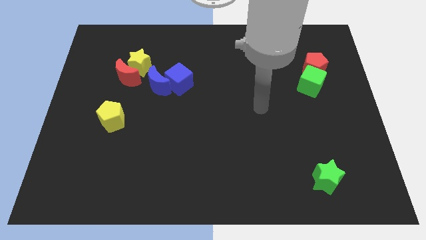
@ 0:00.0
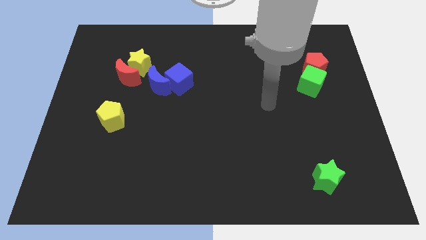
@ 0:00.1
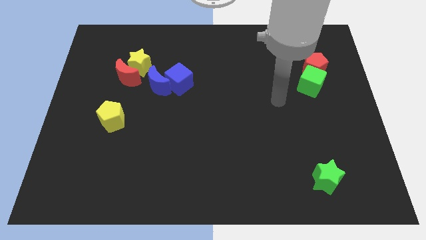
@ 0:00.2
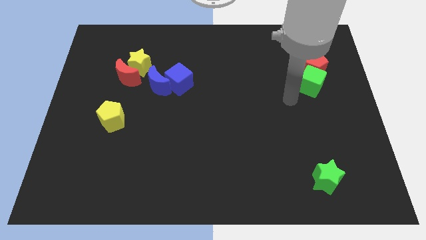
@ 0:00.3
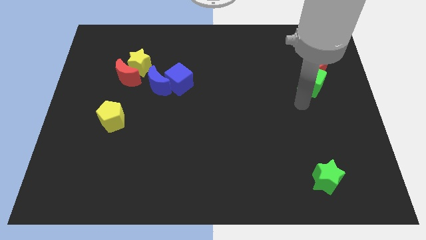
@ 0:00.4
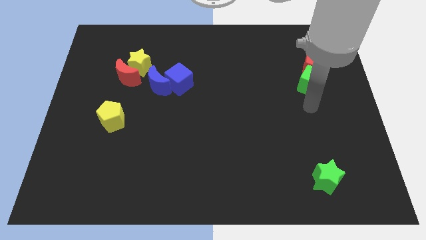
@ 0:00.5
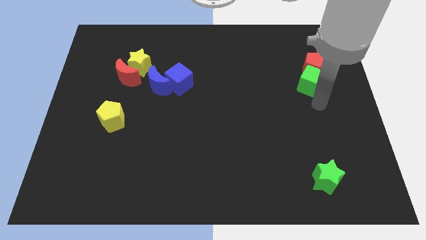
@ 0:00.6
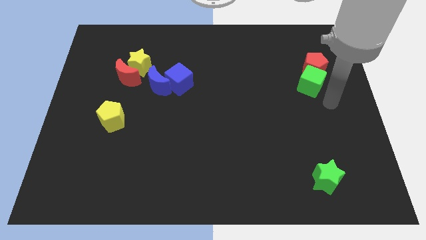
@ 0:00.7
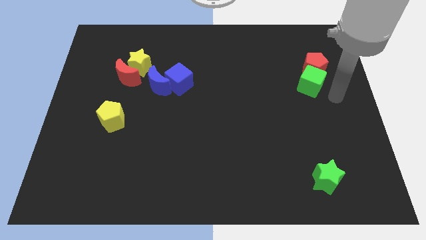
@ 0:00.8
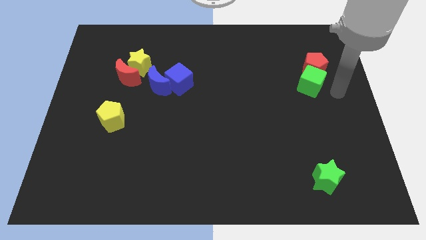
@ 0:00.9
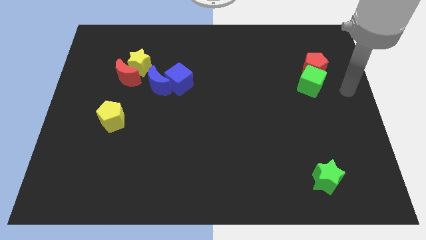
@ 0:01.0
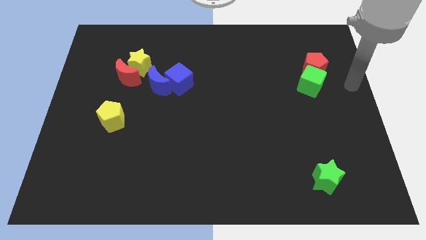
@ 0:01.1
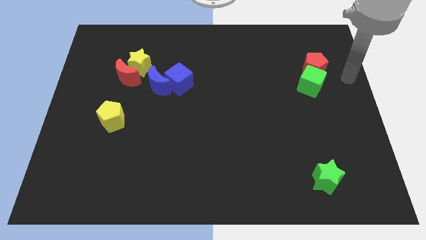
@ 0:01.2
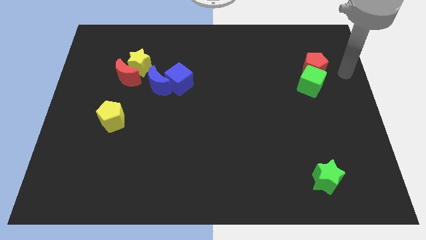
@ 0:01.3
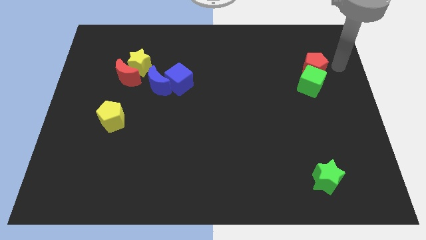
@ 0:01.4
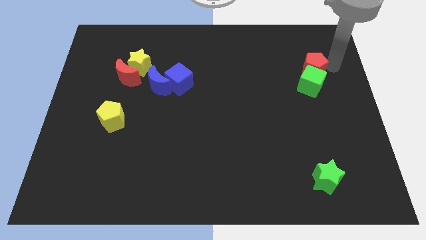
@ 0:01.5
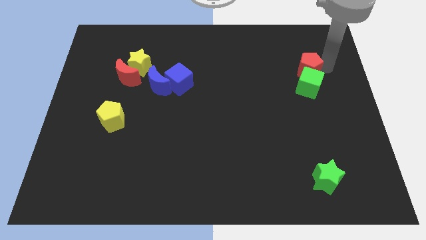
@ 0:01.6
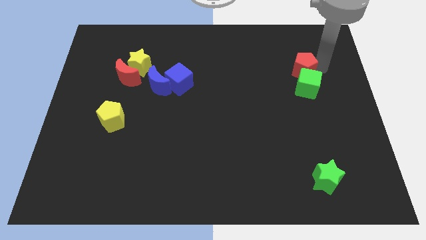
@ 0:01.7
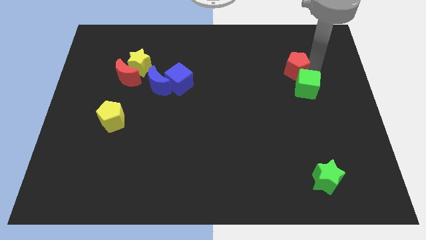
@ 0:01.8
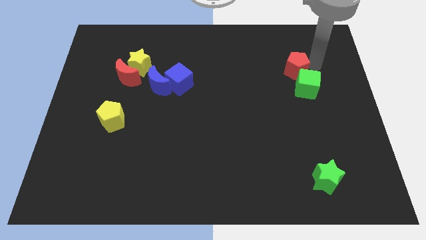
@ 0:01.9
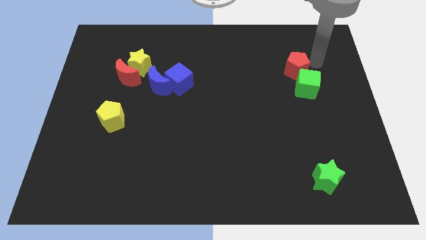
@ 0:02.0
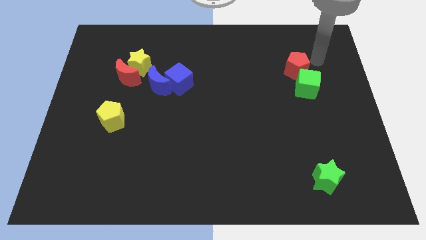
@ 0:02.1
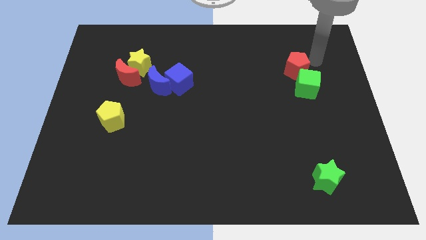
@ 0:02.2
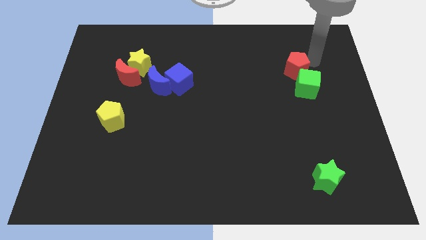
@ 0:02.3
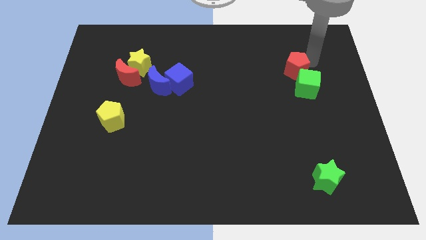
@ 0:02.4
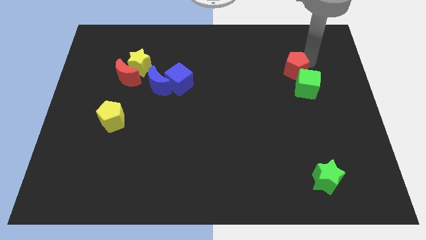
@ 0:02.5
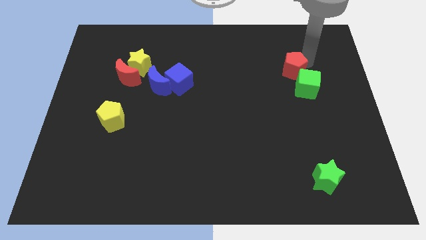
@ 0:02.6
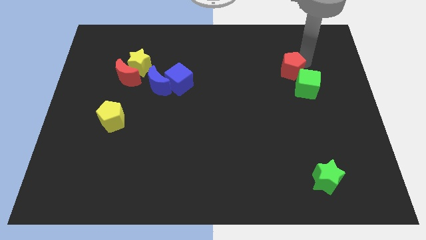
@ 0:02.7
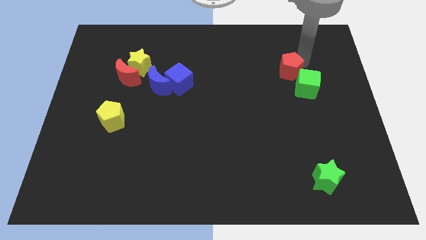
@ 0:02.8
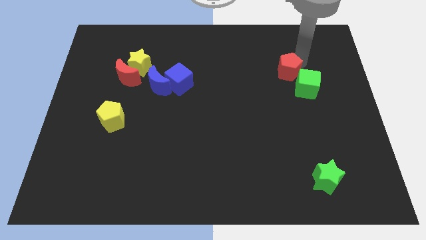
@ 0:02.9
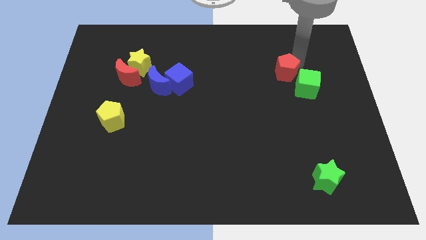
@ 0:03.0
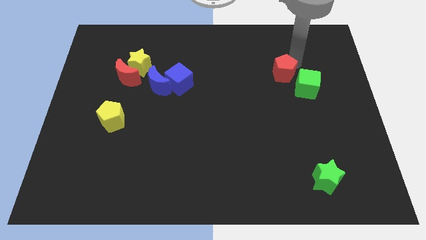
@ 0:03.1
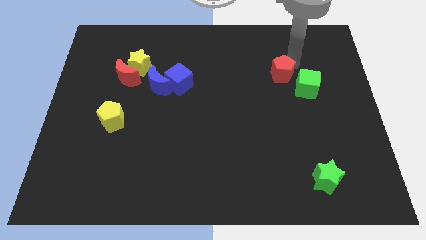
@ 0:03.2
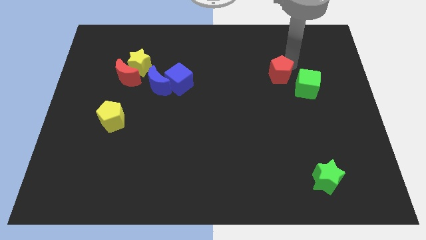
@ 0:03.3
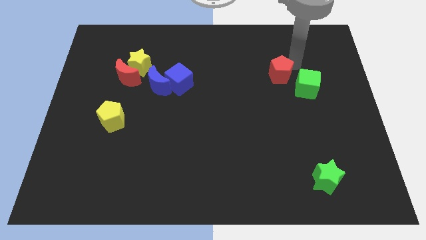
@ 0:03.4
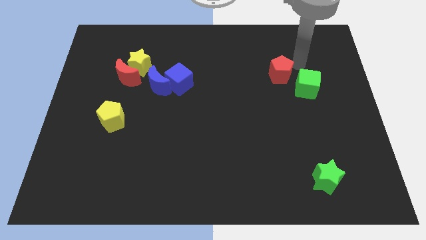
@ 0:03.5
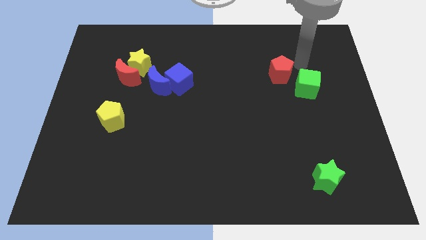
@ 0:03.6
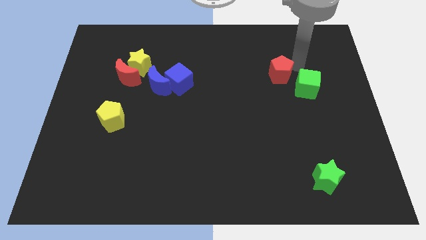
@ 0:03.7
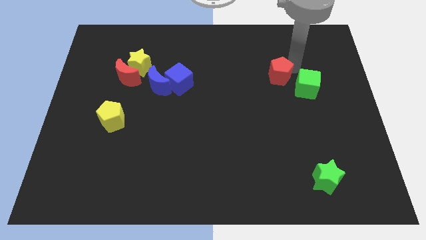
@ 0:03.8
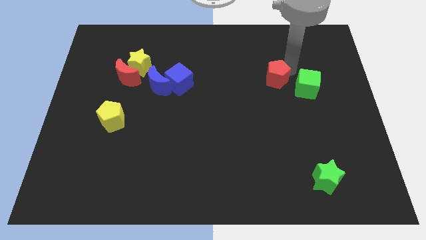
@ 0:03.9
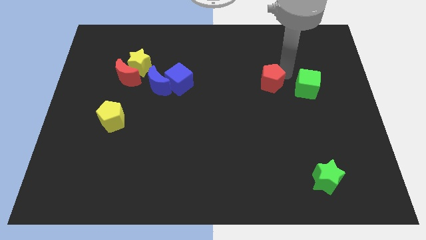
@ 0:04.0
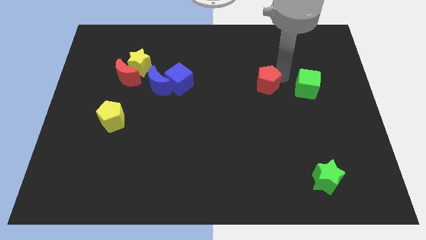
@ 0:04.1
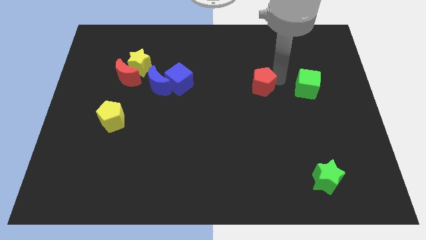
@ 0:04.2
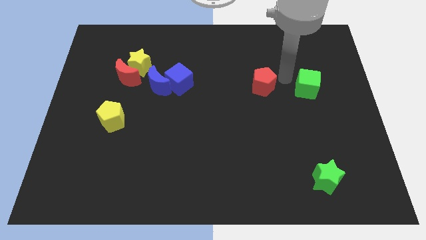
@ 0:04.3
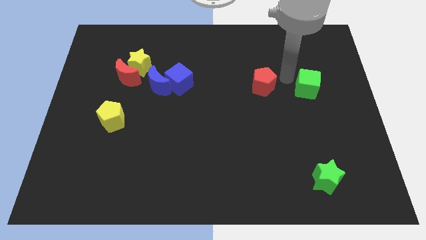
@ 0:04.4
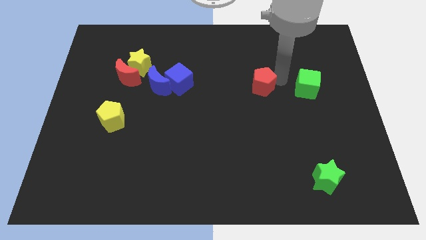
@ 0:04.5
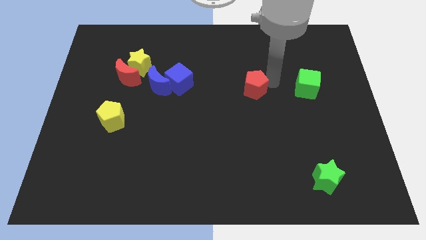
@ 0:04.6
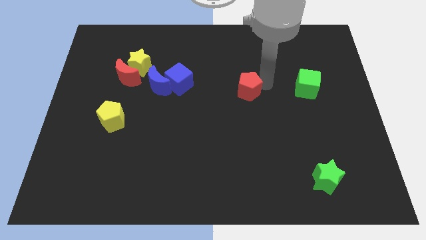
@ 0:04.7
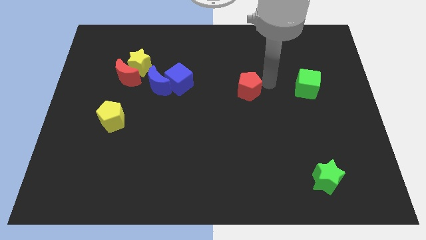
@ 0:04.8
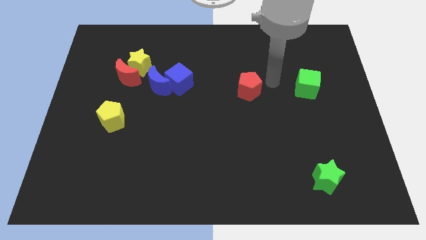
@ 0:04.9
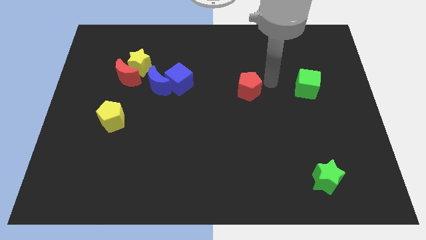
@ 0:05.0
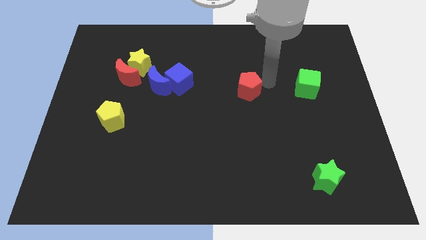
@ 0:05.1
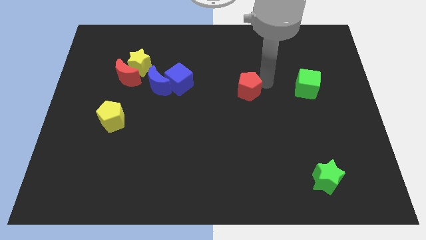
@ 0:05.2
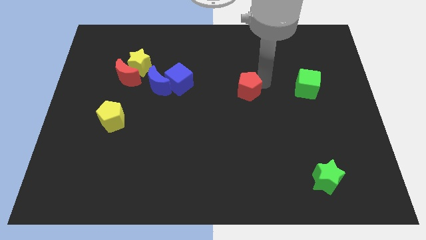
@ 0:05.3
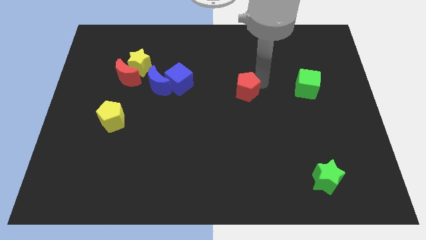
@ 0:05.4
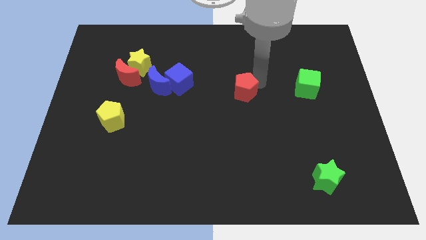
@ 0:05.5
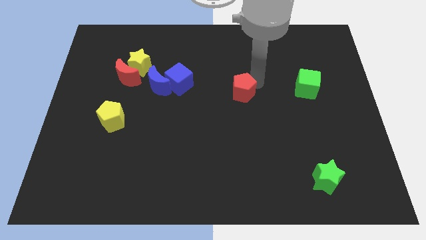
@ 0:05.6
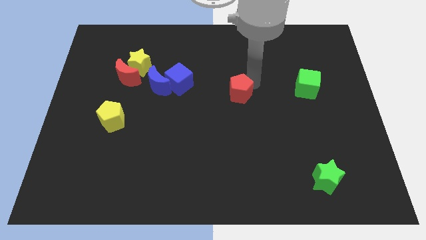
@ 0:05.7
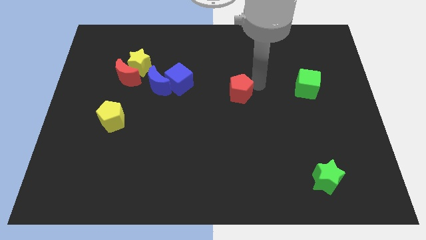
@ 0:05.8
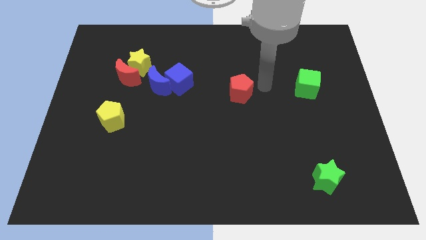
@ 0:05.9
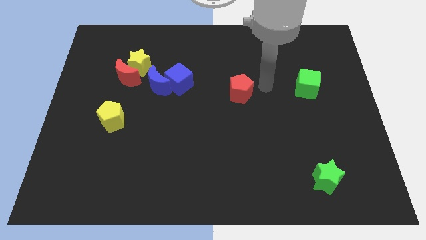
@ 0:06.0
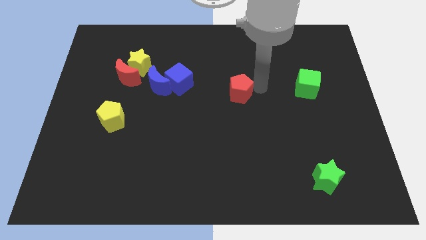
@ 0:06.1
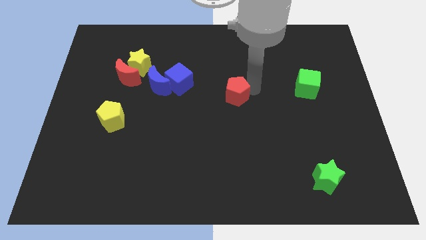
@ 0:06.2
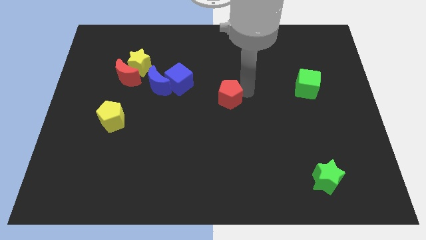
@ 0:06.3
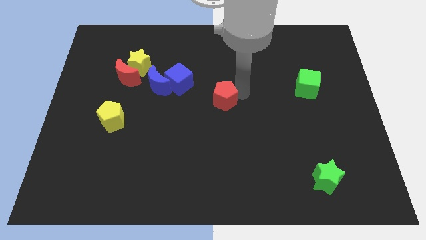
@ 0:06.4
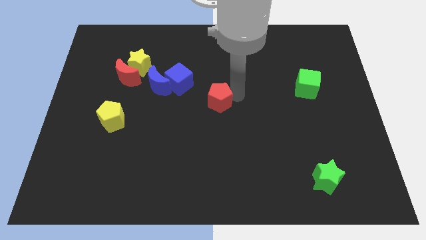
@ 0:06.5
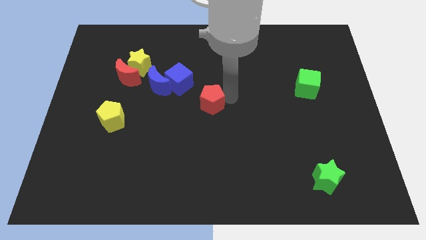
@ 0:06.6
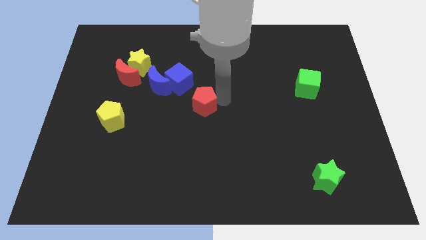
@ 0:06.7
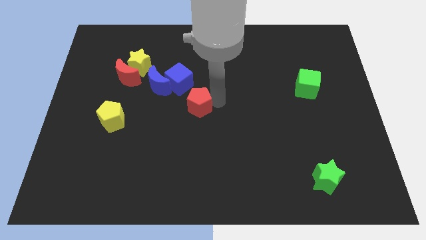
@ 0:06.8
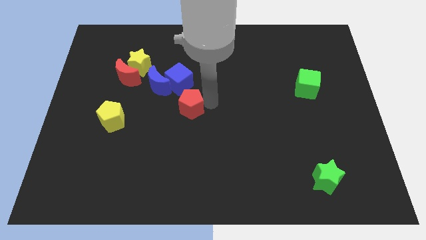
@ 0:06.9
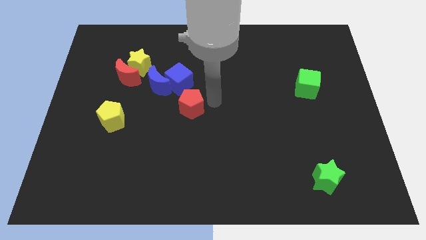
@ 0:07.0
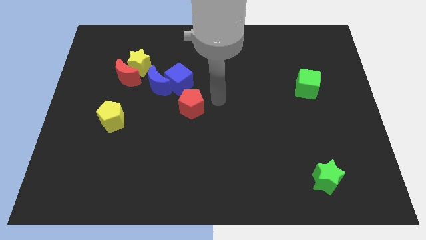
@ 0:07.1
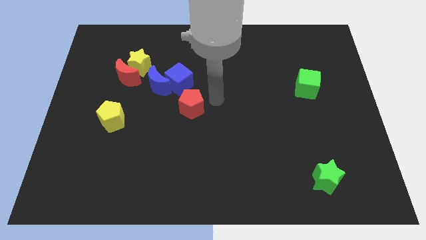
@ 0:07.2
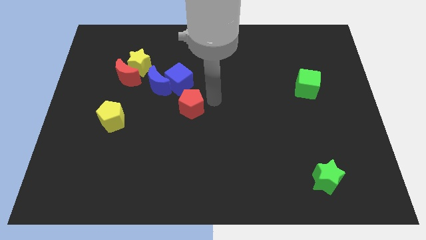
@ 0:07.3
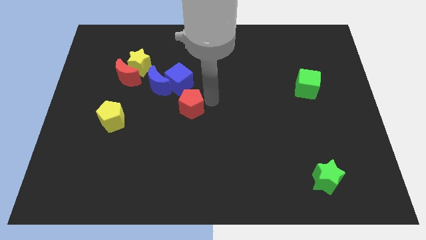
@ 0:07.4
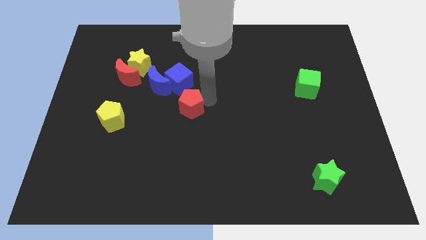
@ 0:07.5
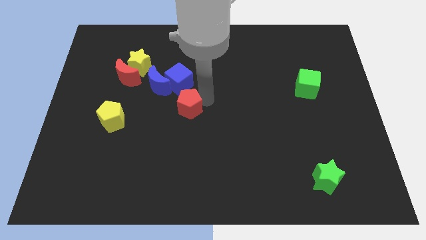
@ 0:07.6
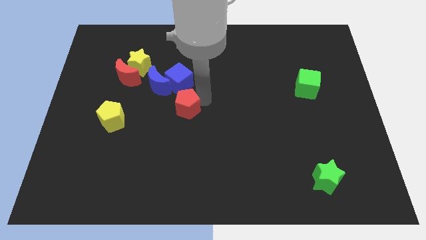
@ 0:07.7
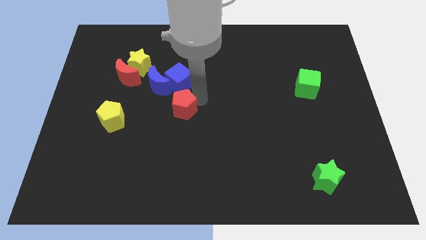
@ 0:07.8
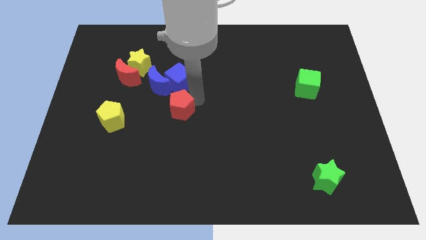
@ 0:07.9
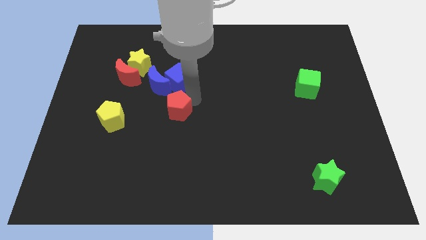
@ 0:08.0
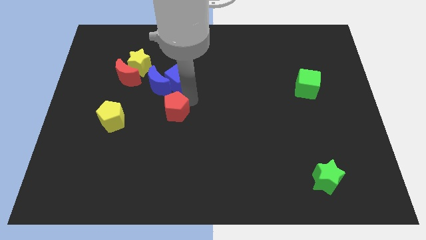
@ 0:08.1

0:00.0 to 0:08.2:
move the red pentagon to the bottom side of the blue moon

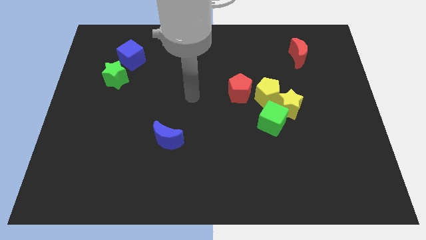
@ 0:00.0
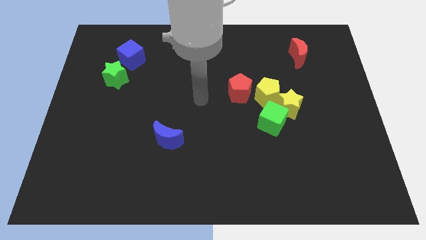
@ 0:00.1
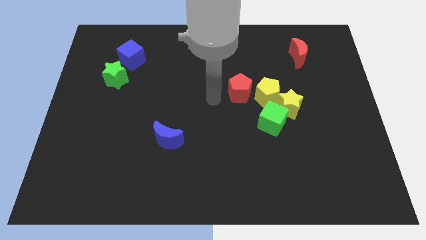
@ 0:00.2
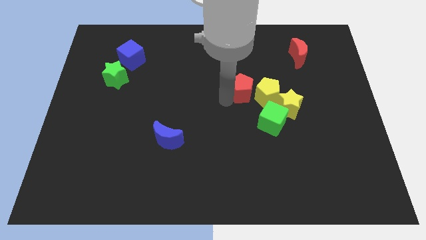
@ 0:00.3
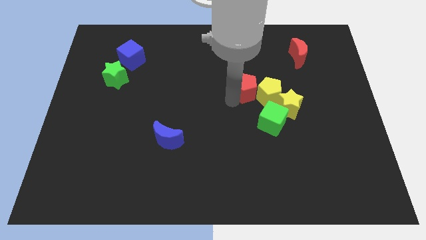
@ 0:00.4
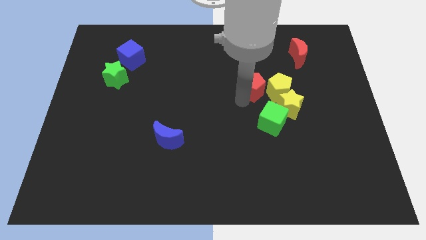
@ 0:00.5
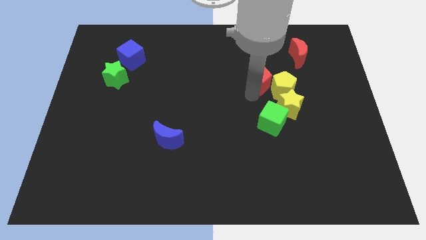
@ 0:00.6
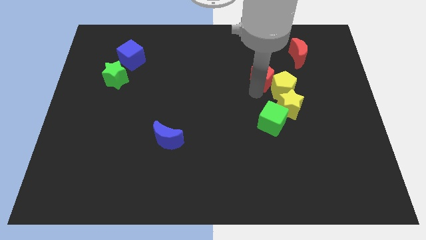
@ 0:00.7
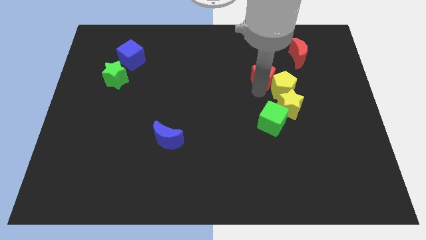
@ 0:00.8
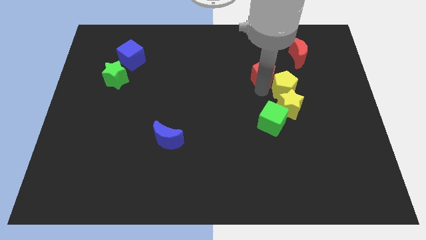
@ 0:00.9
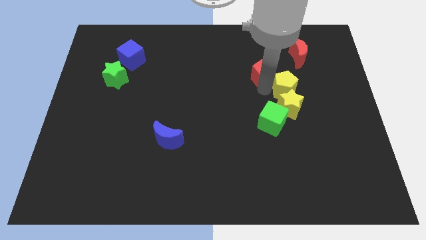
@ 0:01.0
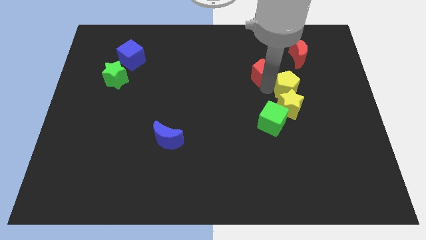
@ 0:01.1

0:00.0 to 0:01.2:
slide the yellow pentagon to the bottom of the red moon
